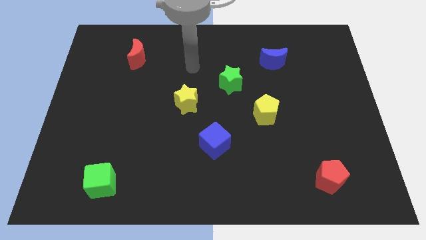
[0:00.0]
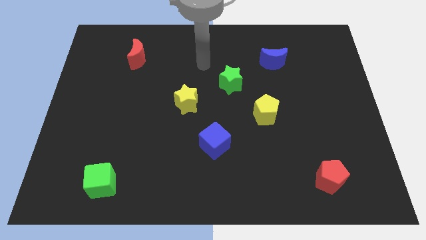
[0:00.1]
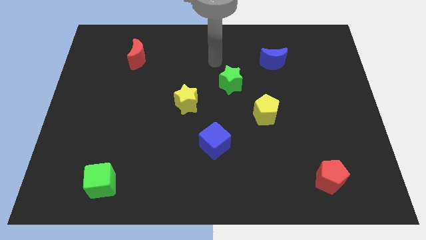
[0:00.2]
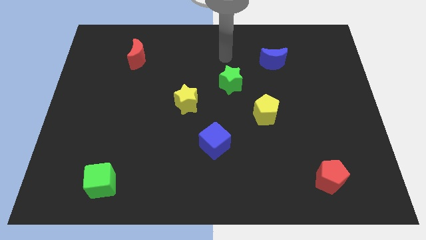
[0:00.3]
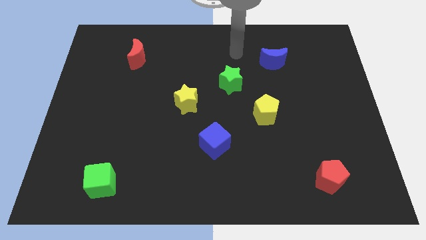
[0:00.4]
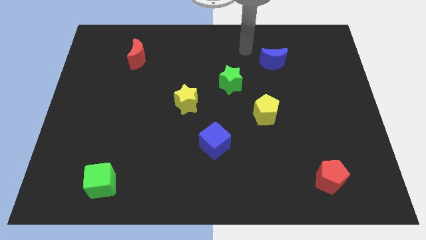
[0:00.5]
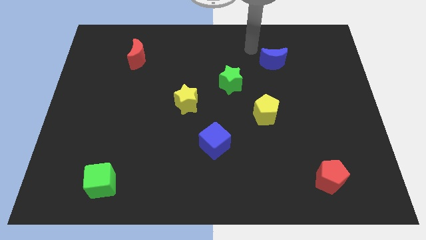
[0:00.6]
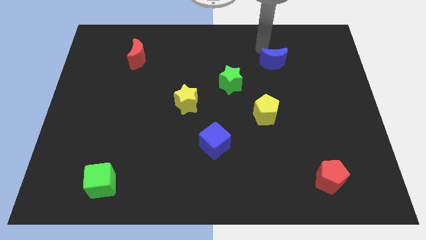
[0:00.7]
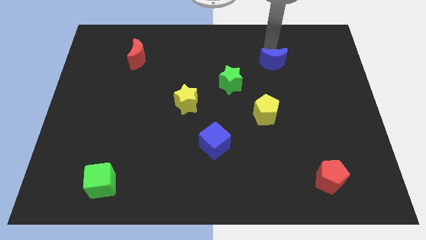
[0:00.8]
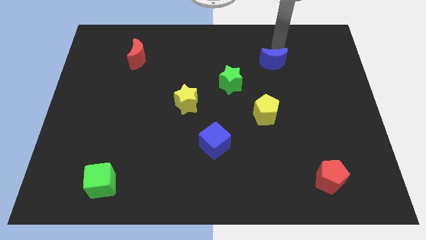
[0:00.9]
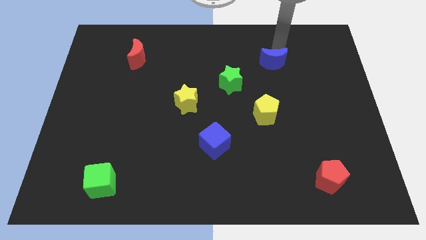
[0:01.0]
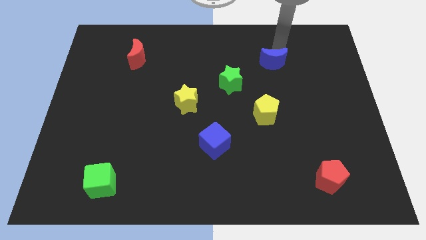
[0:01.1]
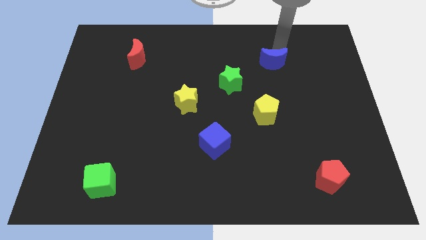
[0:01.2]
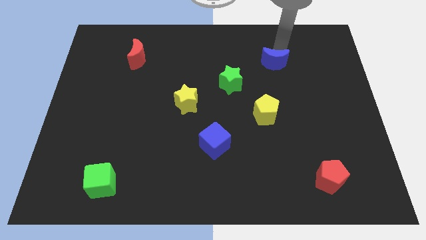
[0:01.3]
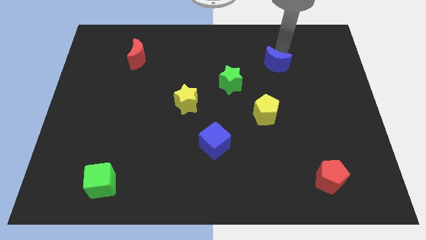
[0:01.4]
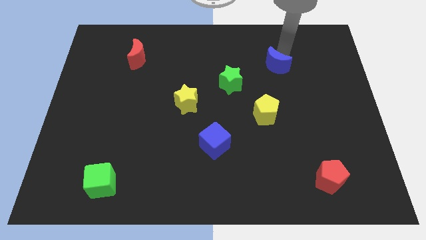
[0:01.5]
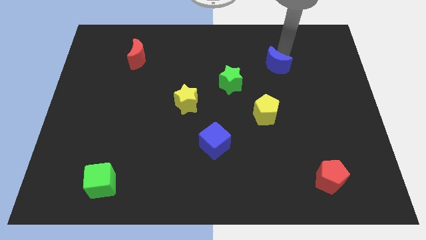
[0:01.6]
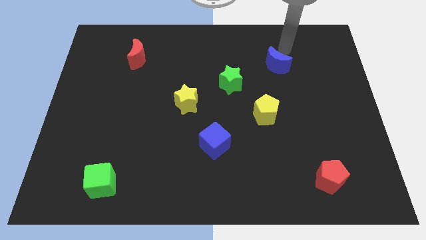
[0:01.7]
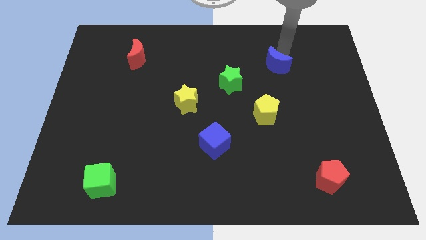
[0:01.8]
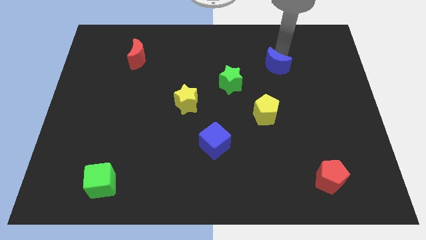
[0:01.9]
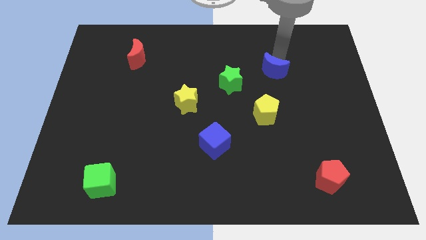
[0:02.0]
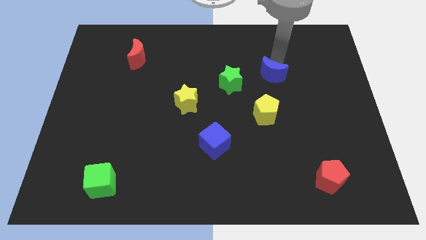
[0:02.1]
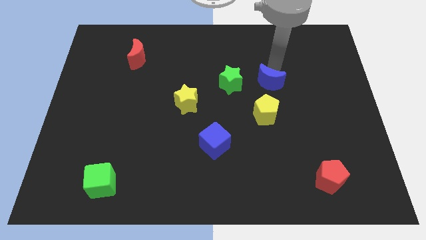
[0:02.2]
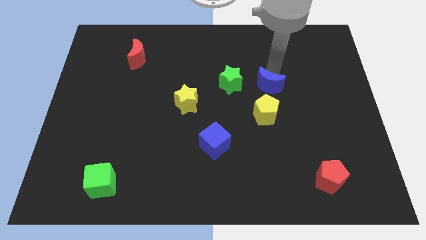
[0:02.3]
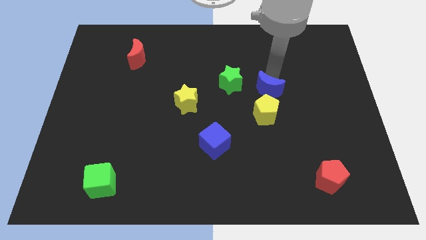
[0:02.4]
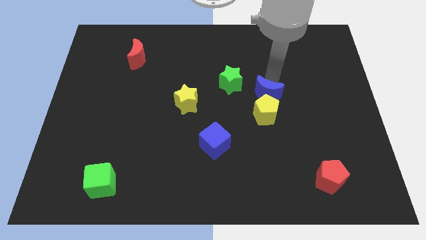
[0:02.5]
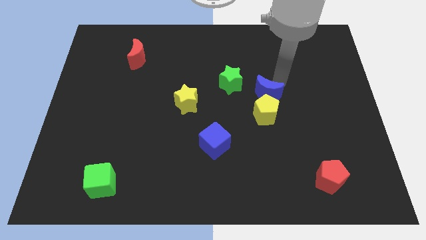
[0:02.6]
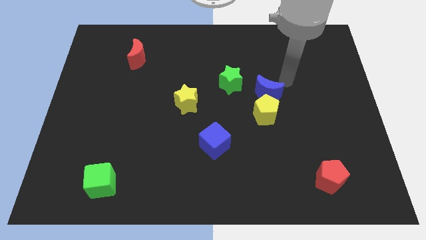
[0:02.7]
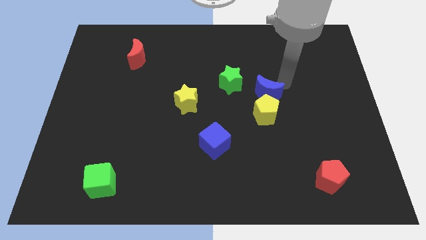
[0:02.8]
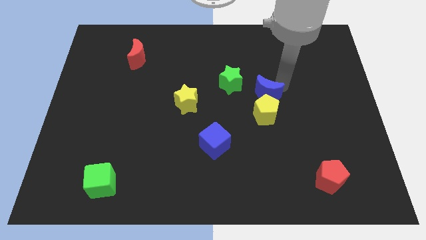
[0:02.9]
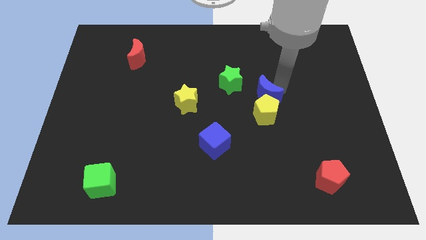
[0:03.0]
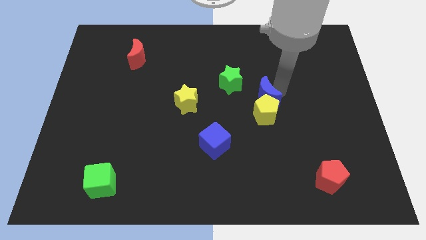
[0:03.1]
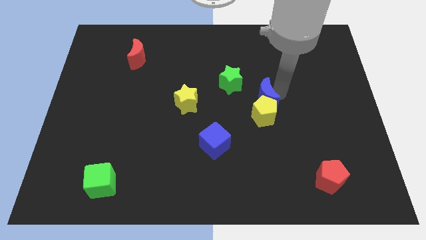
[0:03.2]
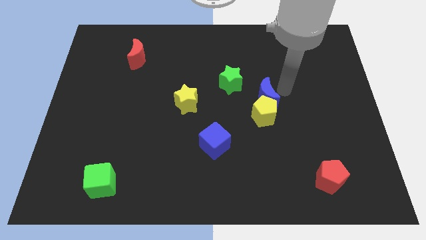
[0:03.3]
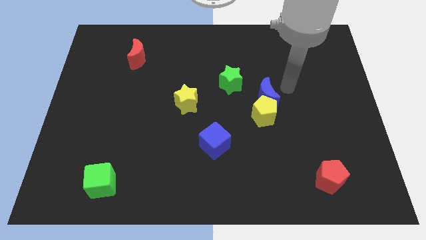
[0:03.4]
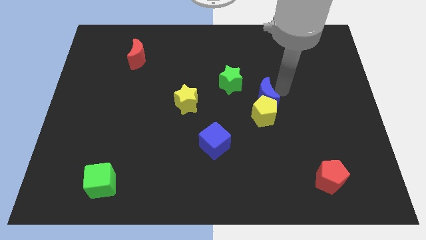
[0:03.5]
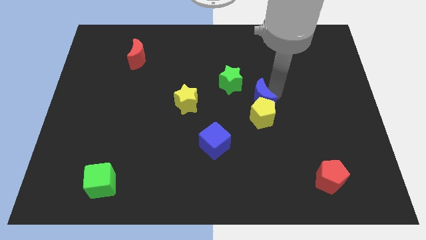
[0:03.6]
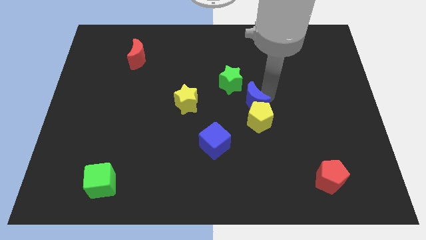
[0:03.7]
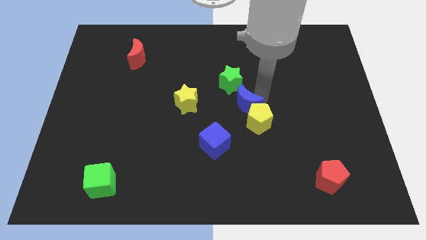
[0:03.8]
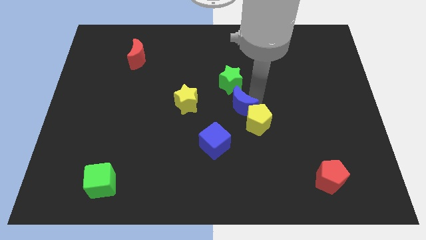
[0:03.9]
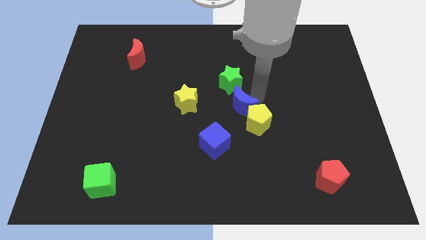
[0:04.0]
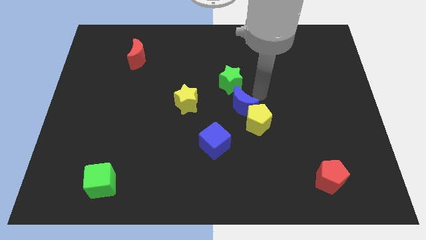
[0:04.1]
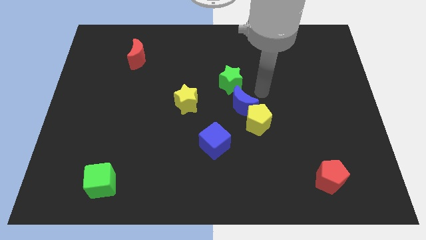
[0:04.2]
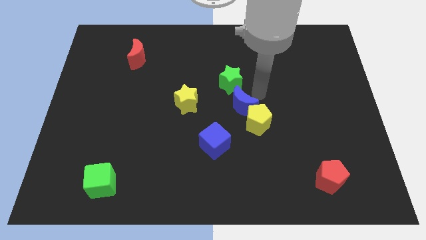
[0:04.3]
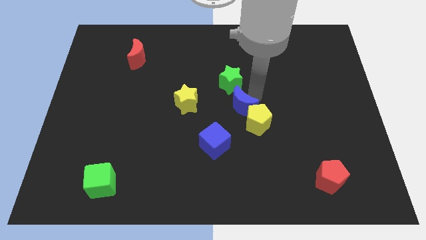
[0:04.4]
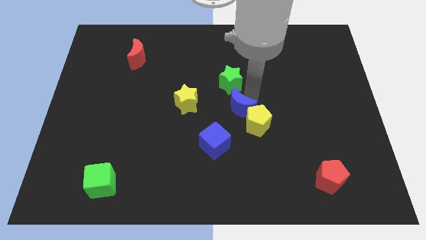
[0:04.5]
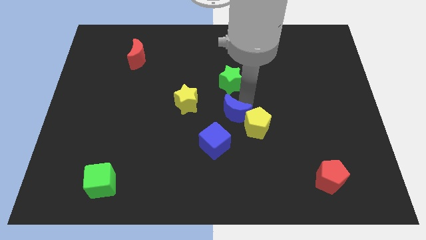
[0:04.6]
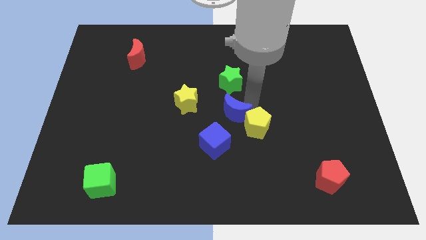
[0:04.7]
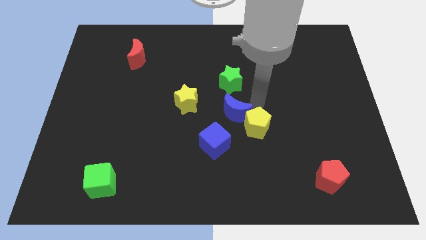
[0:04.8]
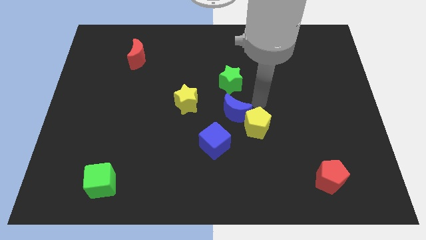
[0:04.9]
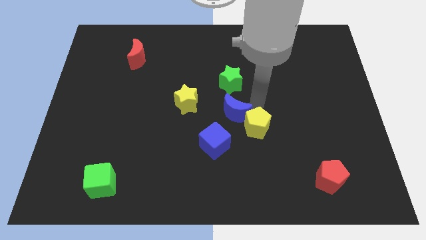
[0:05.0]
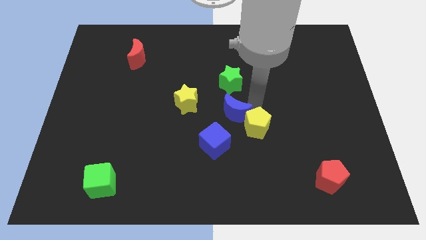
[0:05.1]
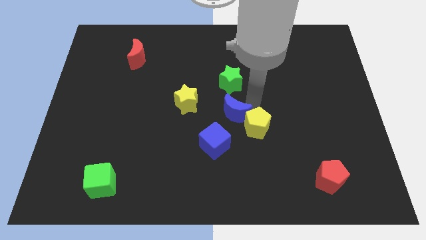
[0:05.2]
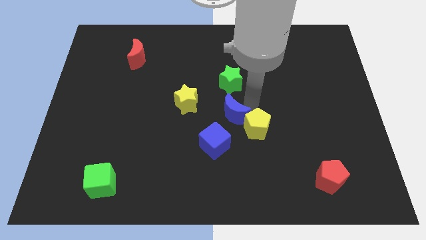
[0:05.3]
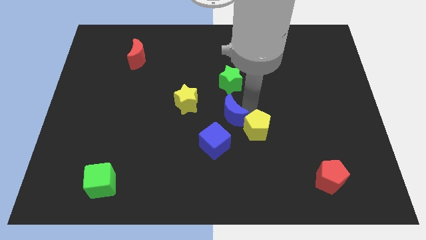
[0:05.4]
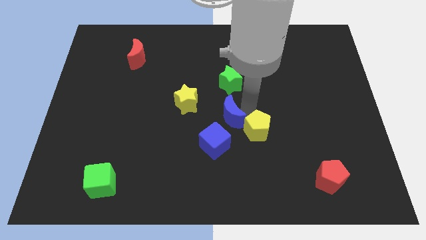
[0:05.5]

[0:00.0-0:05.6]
slide the blue moon diagonally downwards and to the left

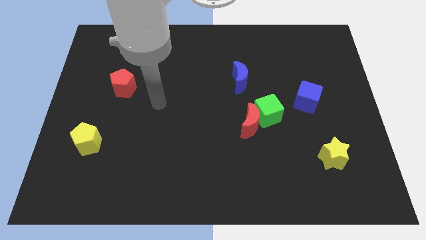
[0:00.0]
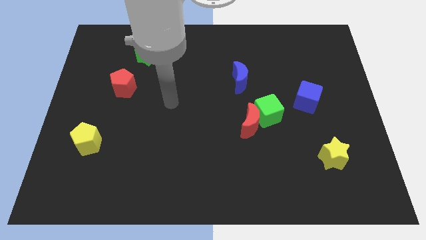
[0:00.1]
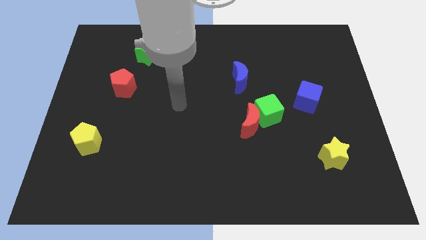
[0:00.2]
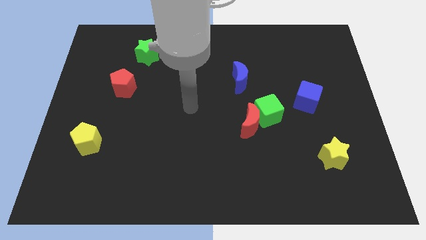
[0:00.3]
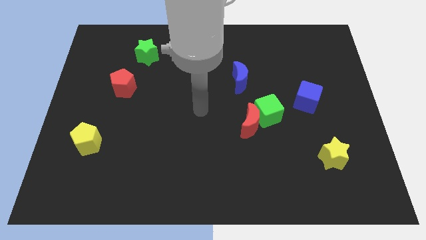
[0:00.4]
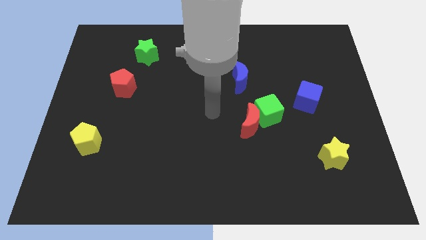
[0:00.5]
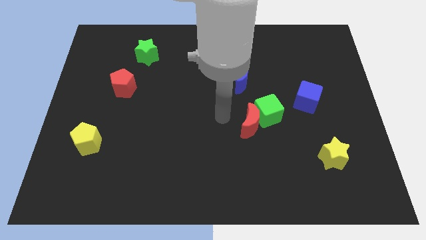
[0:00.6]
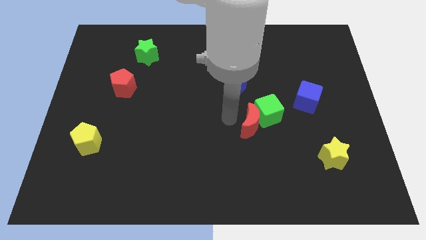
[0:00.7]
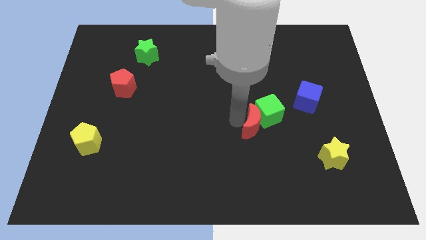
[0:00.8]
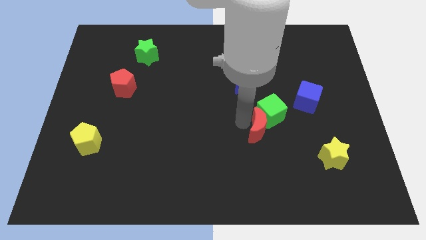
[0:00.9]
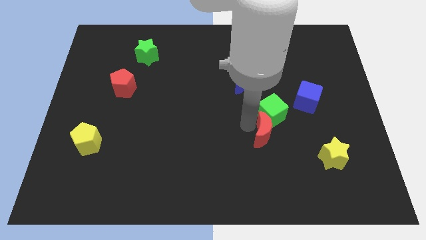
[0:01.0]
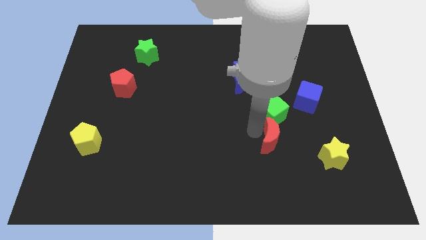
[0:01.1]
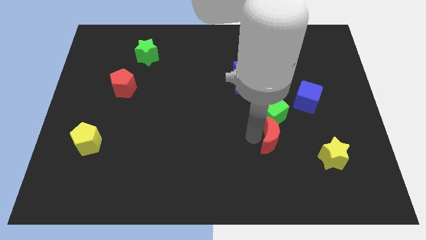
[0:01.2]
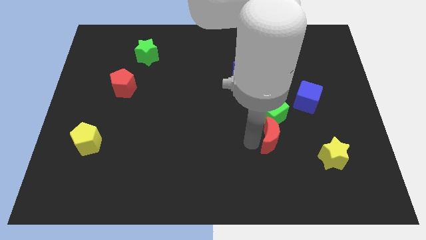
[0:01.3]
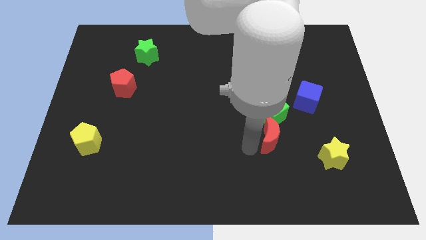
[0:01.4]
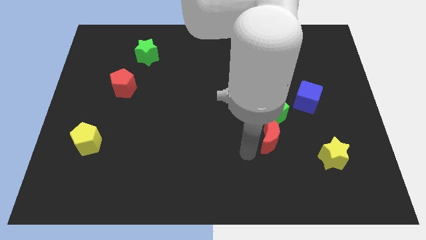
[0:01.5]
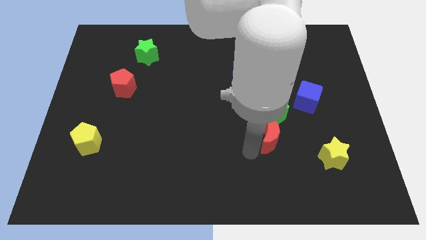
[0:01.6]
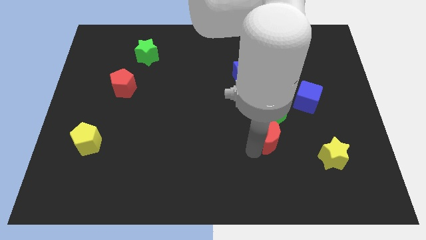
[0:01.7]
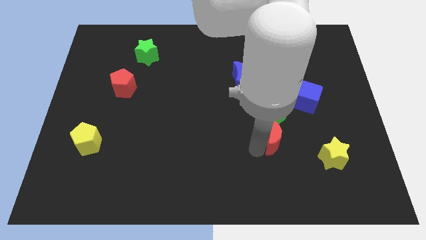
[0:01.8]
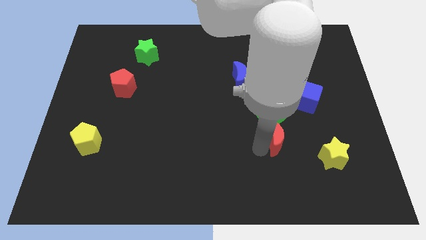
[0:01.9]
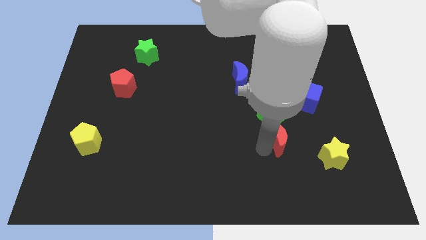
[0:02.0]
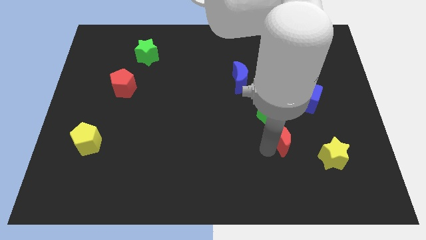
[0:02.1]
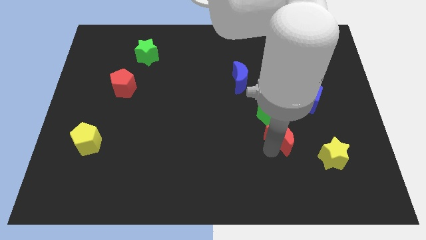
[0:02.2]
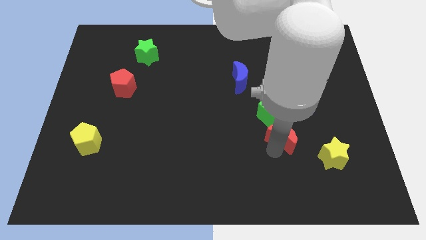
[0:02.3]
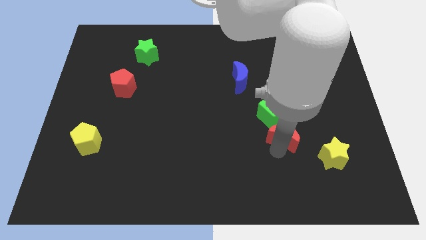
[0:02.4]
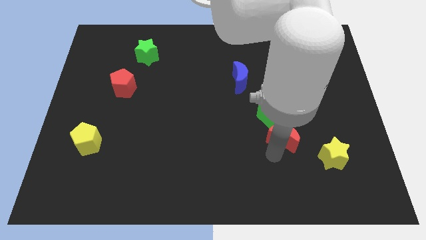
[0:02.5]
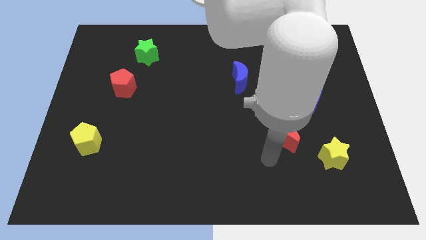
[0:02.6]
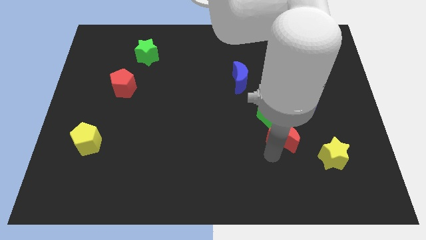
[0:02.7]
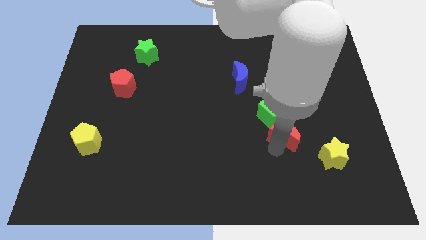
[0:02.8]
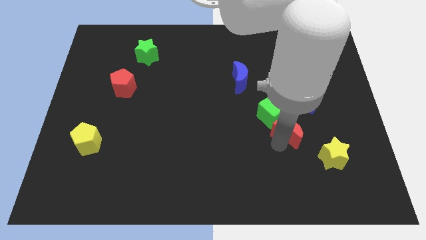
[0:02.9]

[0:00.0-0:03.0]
push the red moon a little bit right
